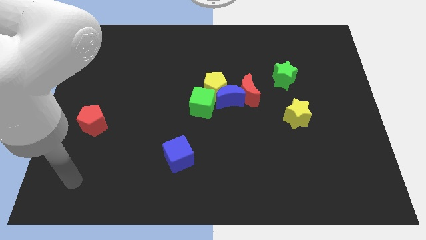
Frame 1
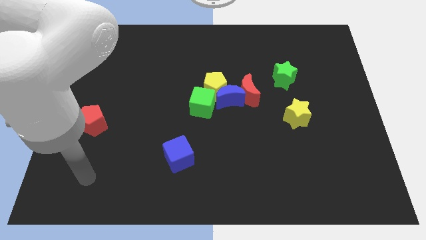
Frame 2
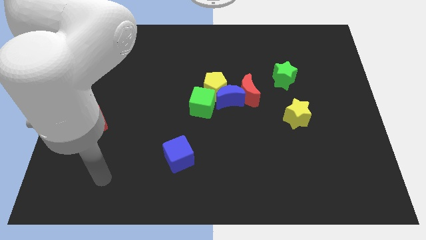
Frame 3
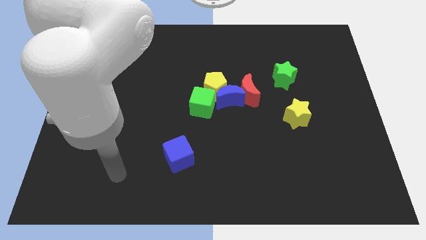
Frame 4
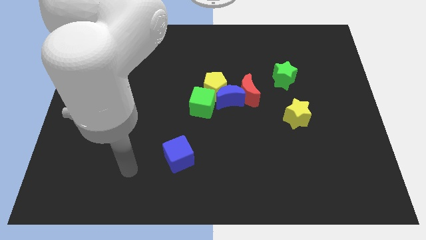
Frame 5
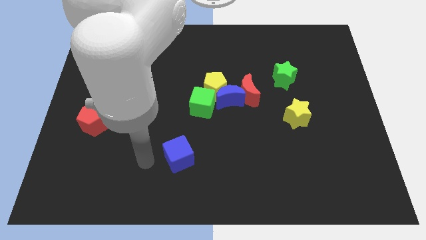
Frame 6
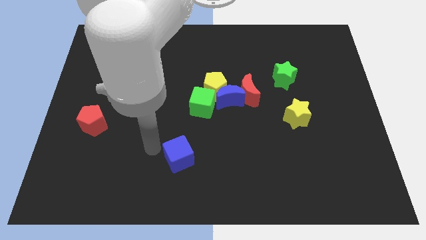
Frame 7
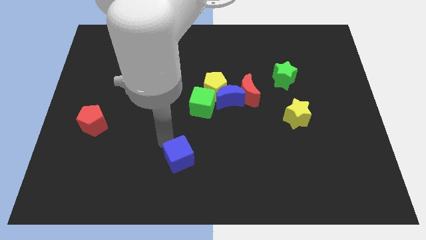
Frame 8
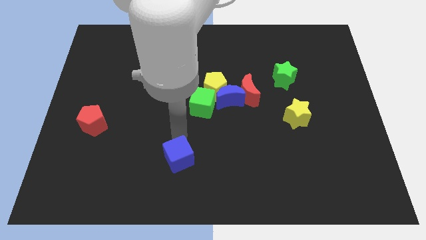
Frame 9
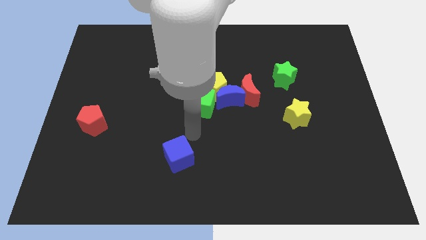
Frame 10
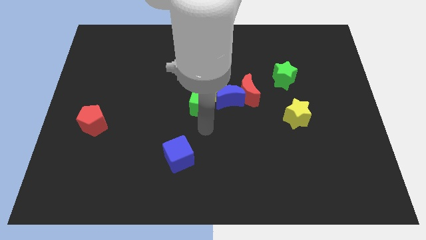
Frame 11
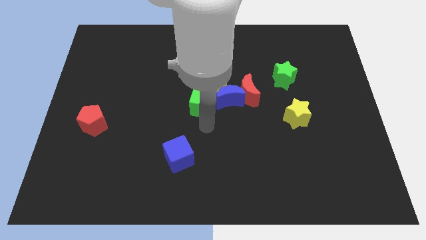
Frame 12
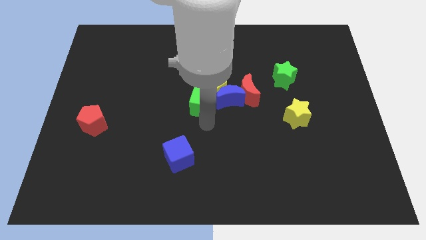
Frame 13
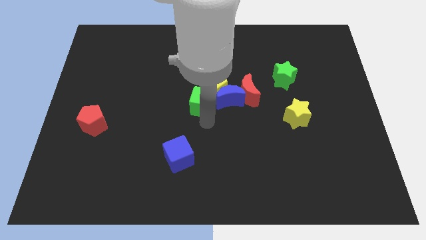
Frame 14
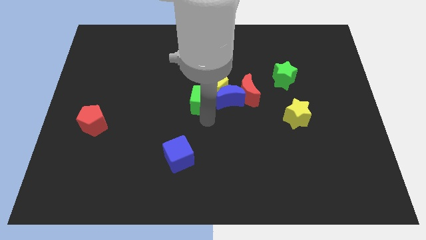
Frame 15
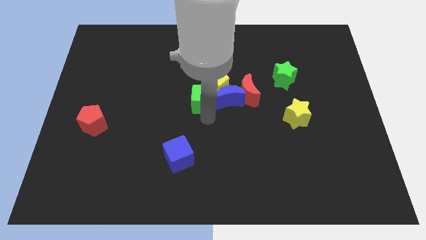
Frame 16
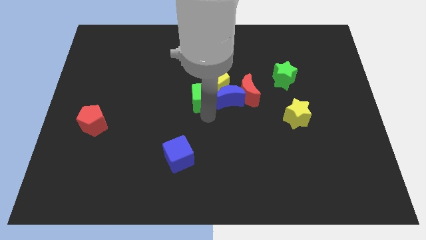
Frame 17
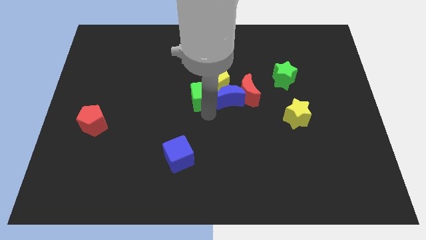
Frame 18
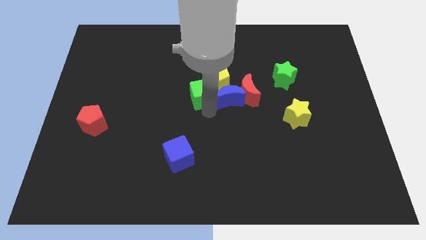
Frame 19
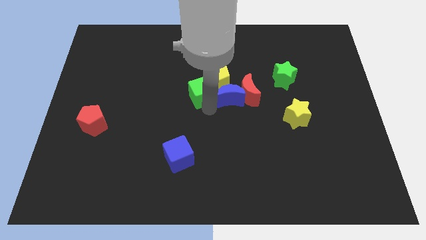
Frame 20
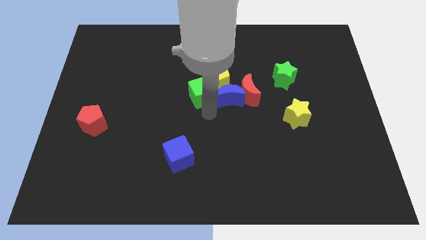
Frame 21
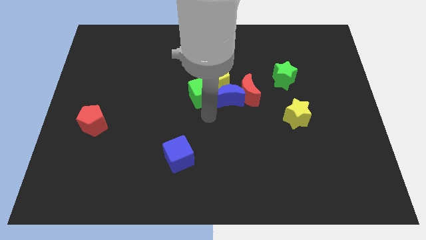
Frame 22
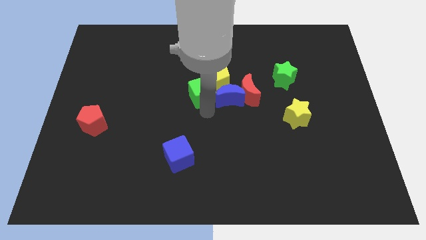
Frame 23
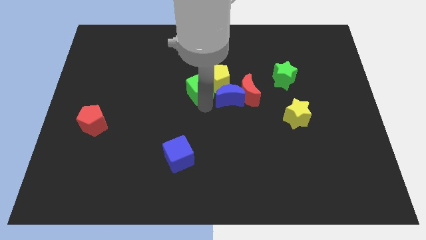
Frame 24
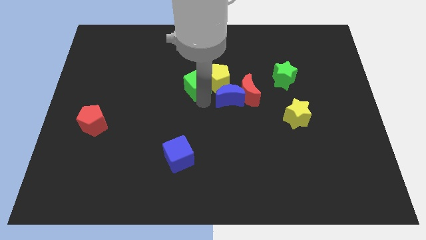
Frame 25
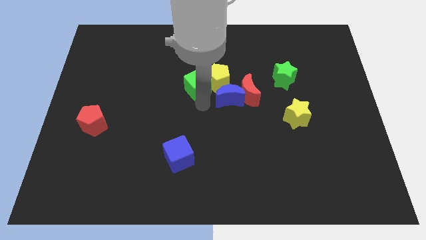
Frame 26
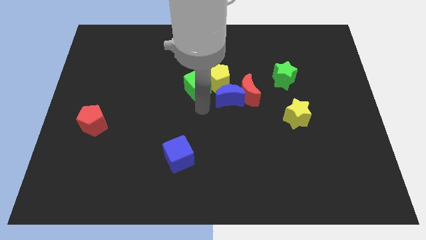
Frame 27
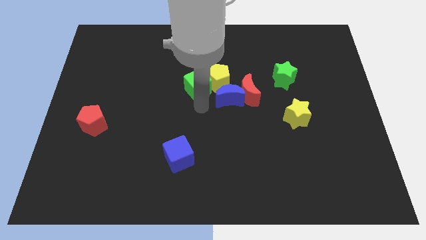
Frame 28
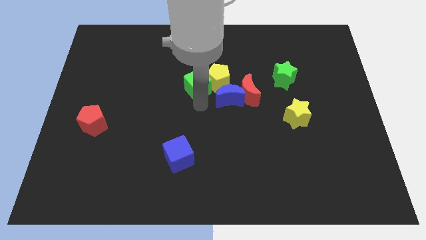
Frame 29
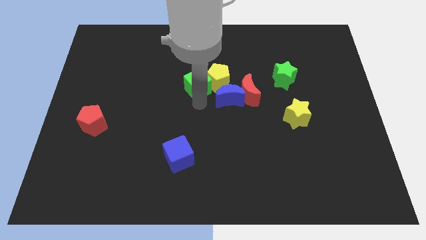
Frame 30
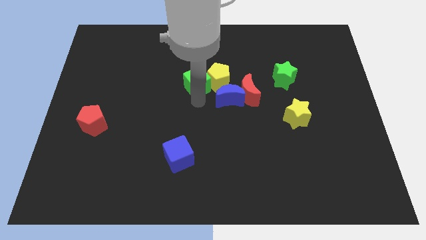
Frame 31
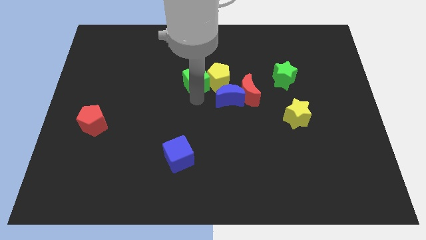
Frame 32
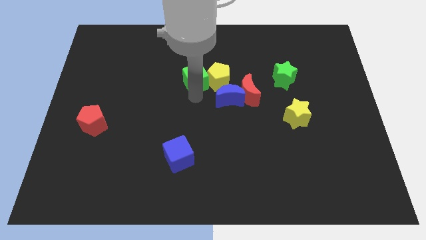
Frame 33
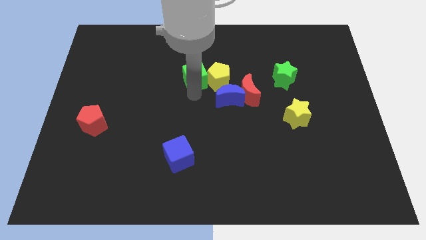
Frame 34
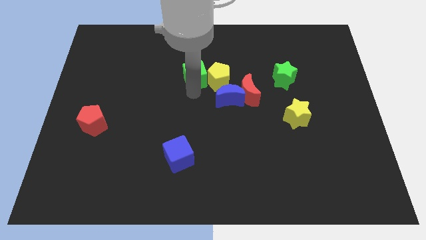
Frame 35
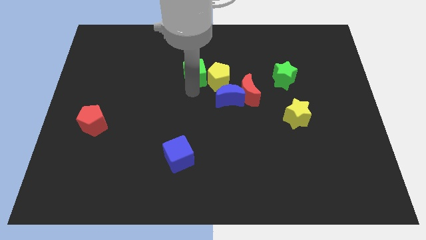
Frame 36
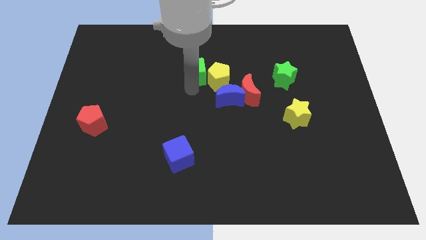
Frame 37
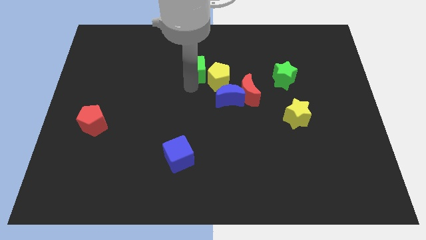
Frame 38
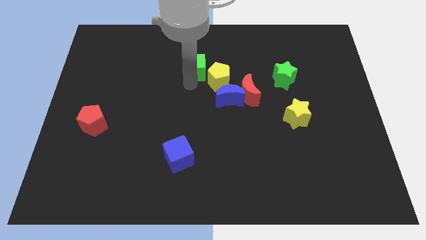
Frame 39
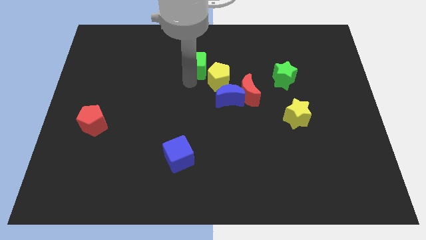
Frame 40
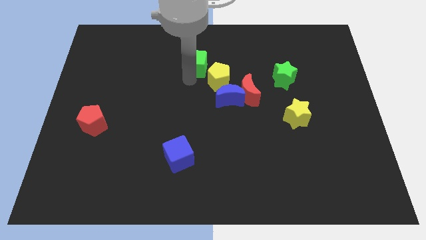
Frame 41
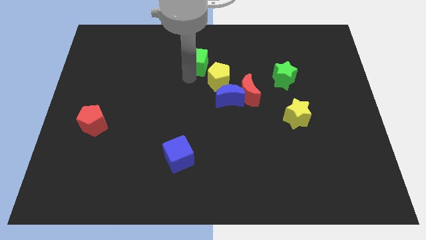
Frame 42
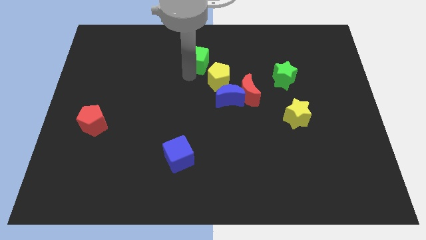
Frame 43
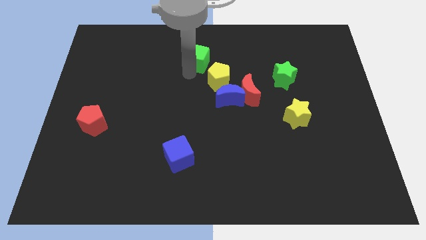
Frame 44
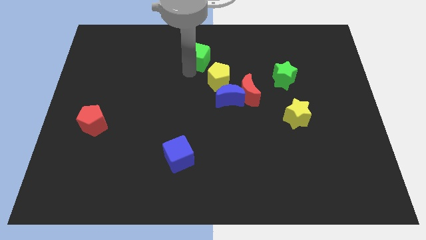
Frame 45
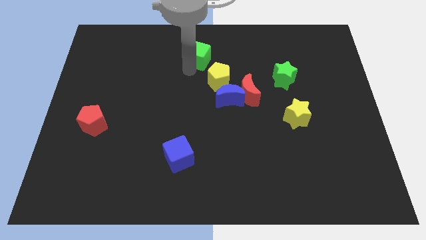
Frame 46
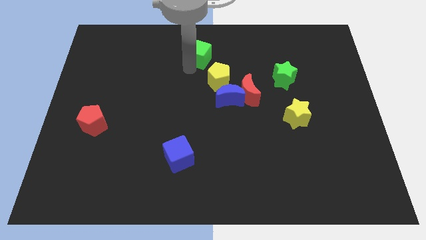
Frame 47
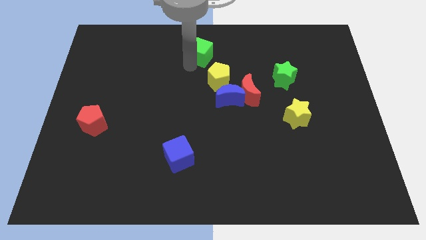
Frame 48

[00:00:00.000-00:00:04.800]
move the green cube to the top side

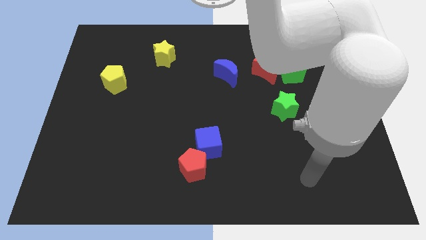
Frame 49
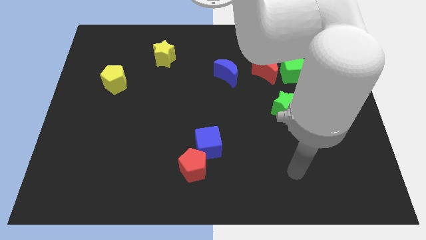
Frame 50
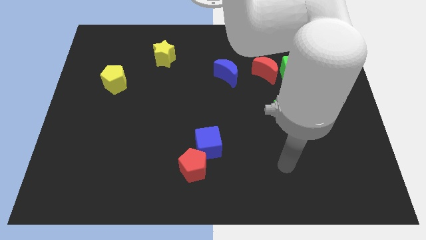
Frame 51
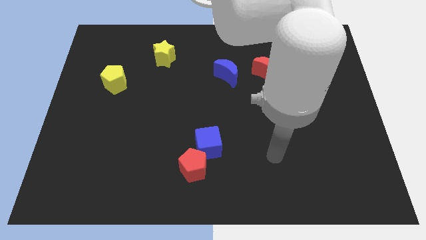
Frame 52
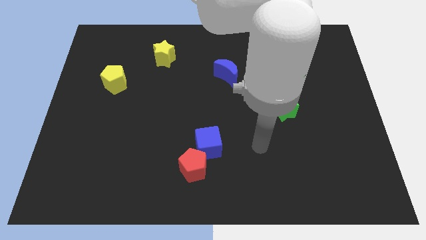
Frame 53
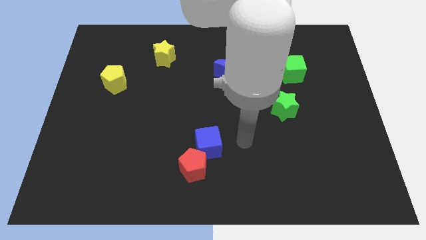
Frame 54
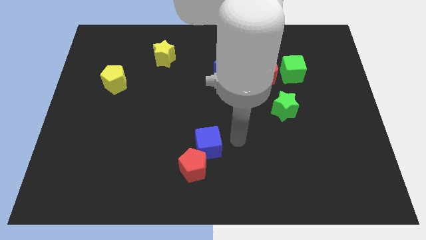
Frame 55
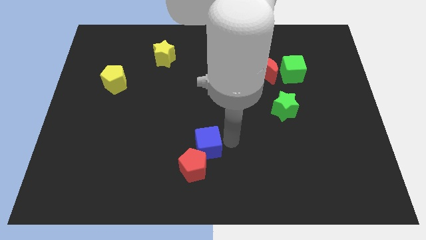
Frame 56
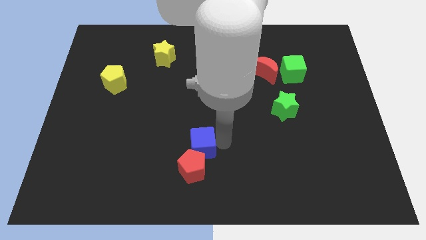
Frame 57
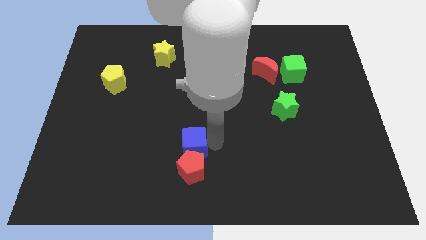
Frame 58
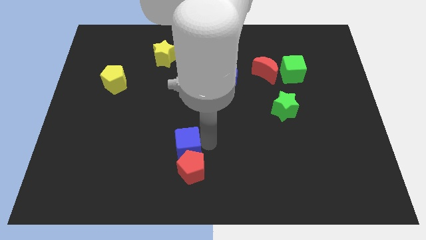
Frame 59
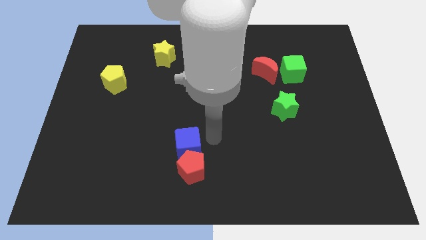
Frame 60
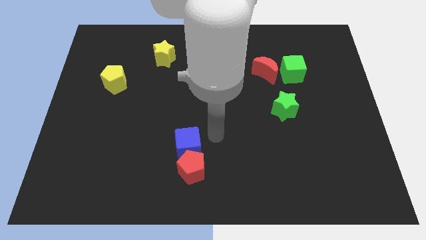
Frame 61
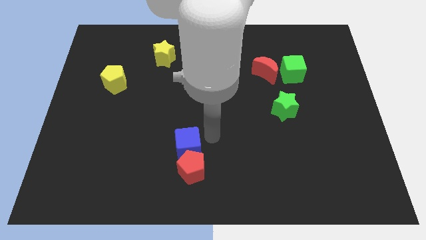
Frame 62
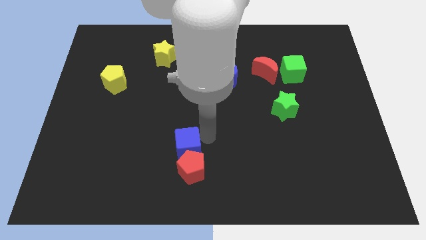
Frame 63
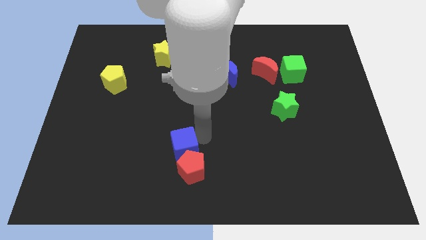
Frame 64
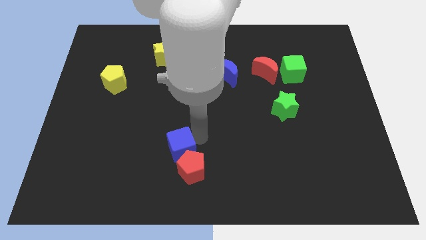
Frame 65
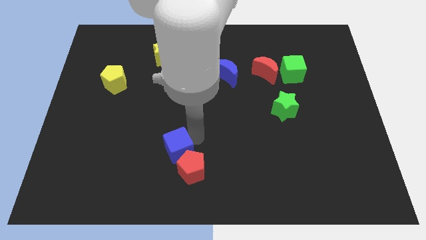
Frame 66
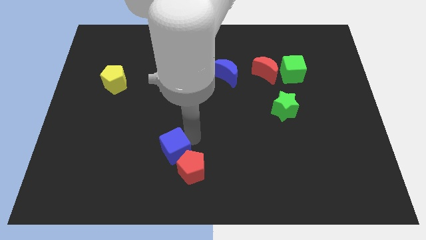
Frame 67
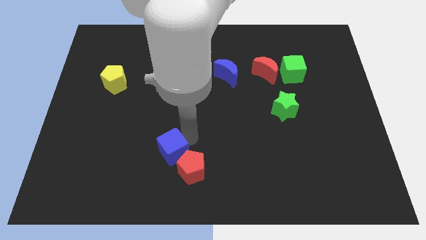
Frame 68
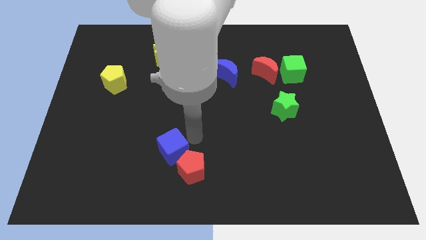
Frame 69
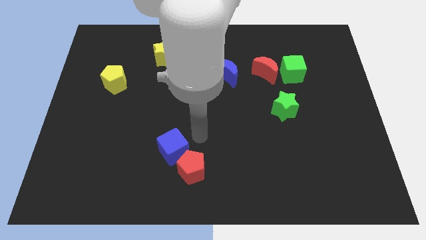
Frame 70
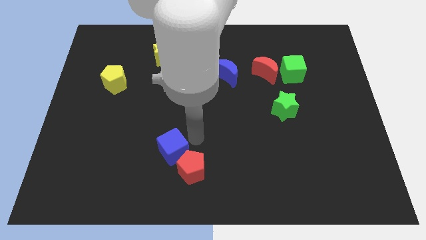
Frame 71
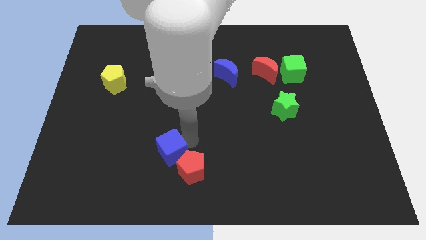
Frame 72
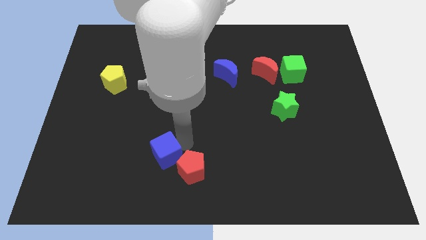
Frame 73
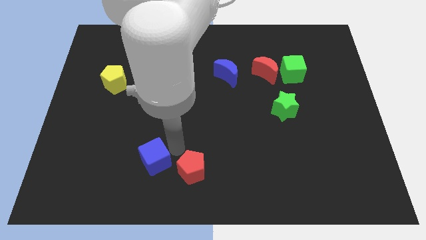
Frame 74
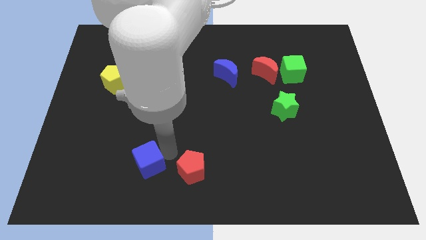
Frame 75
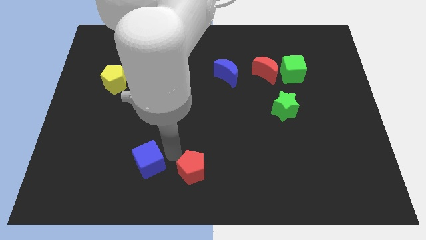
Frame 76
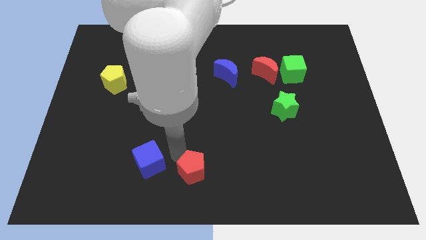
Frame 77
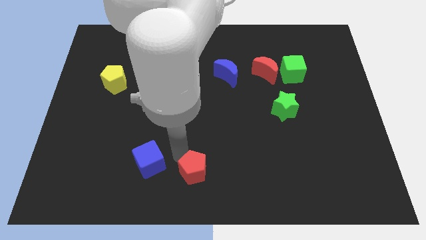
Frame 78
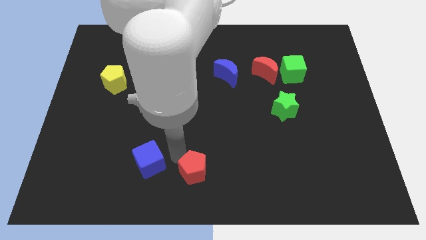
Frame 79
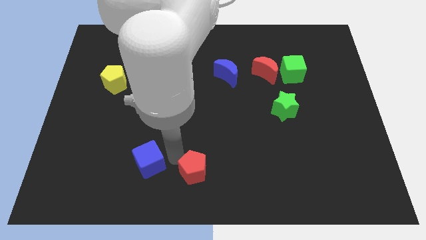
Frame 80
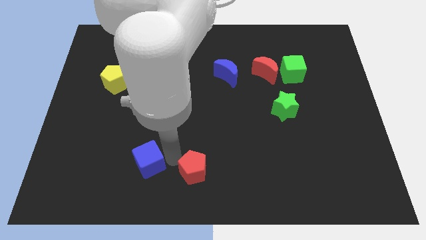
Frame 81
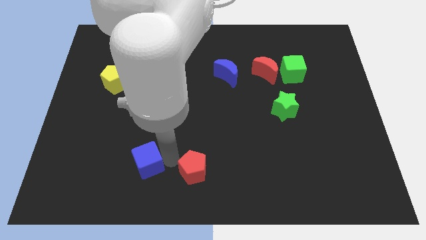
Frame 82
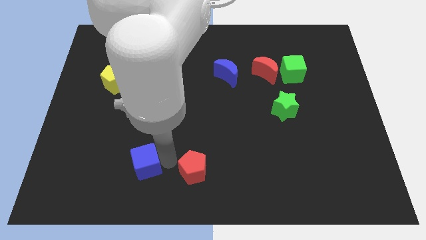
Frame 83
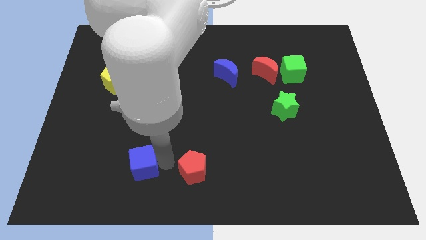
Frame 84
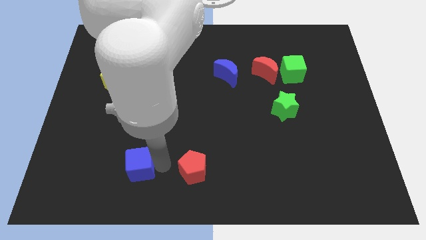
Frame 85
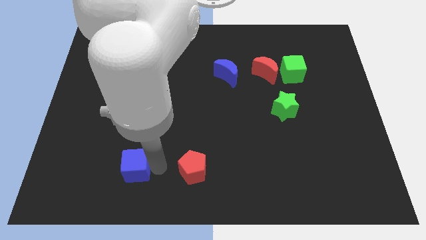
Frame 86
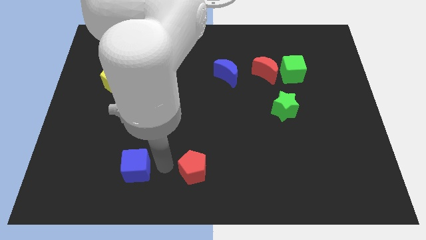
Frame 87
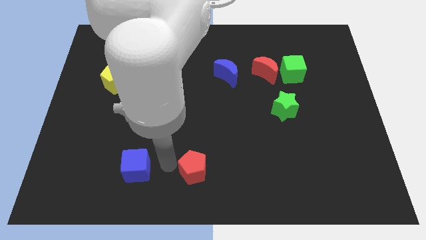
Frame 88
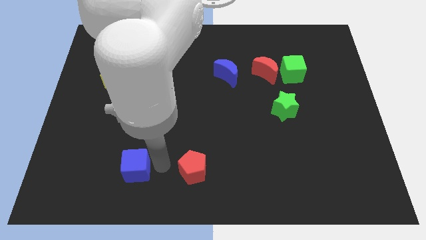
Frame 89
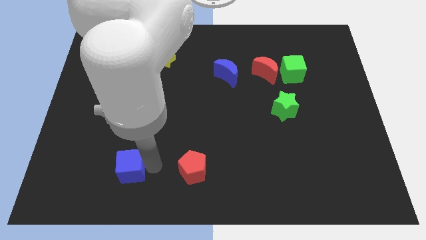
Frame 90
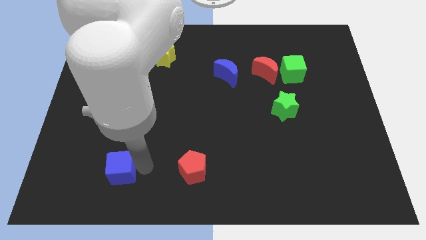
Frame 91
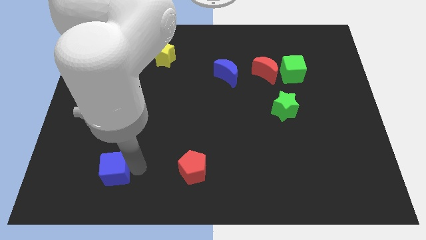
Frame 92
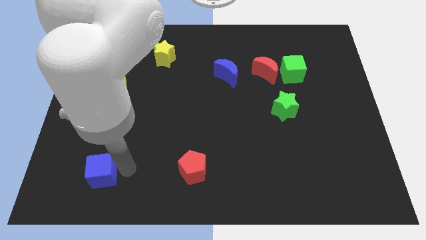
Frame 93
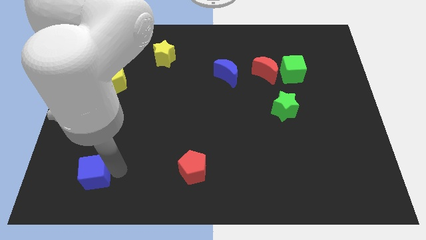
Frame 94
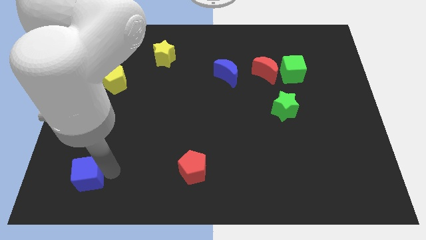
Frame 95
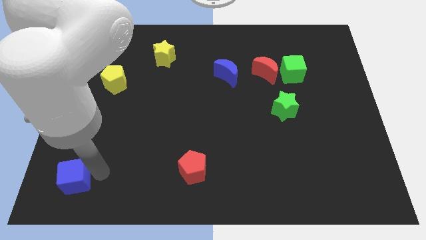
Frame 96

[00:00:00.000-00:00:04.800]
move the blue cube to the lower left corner
